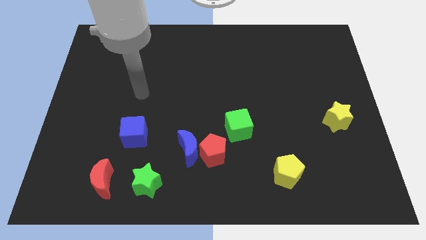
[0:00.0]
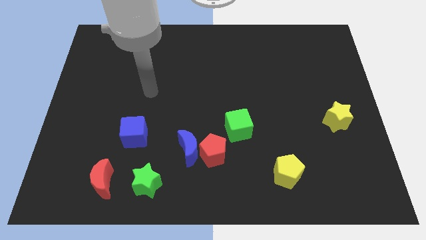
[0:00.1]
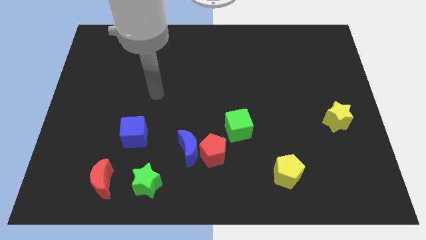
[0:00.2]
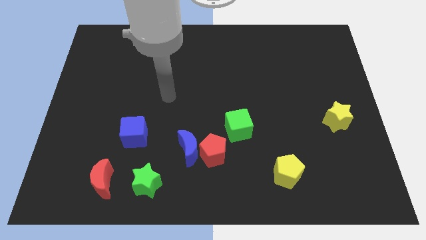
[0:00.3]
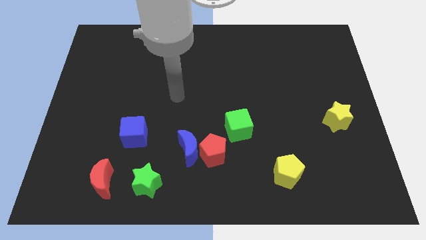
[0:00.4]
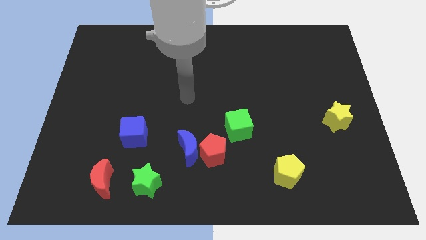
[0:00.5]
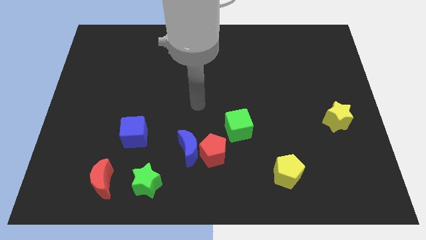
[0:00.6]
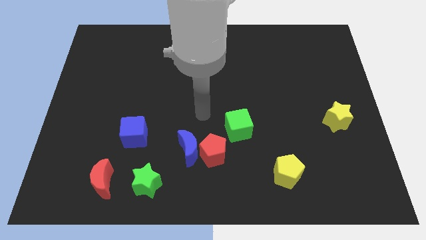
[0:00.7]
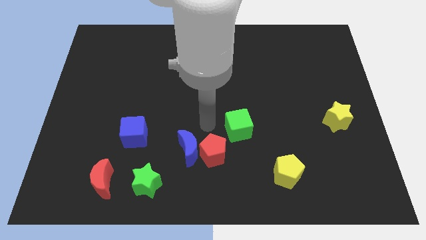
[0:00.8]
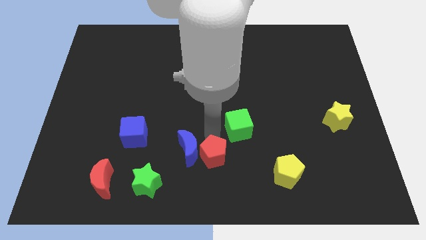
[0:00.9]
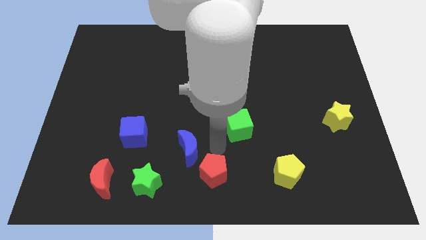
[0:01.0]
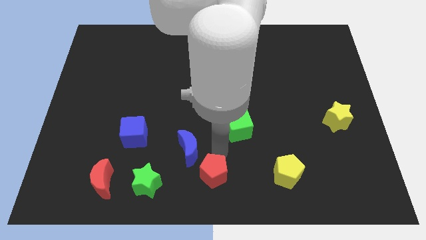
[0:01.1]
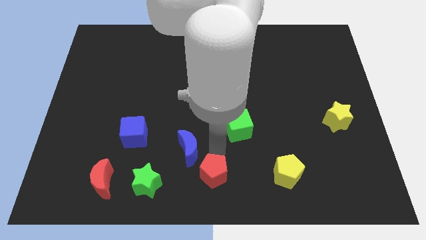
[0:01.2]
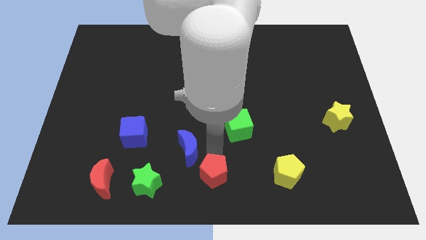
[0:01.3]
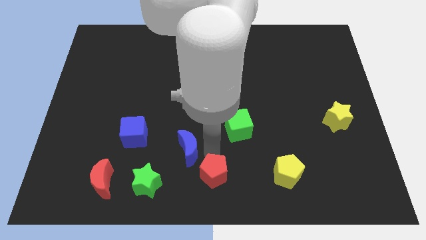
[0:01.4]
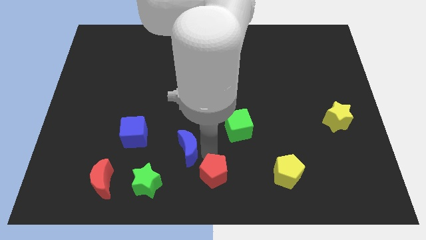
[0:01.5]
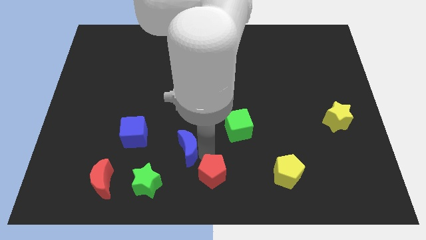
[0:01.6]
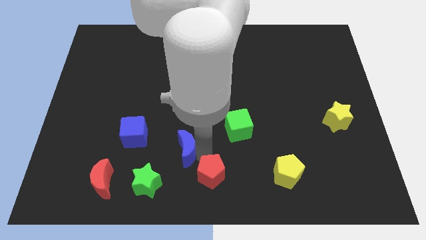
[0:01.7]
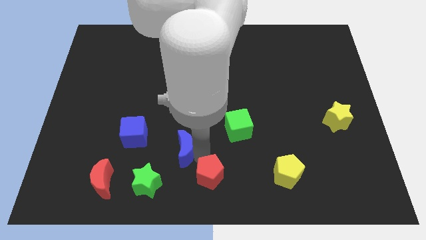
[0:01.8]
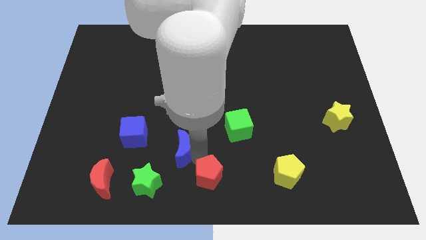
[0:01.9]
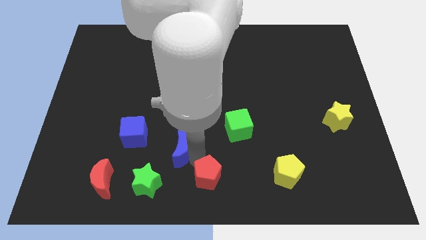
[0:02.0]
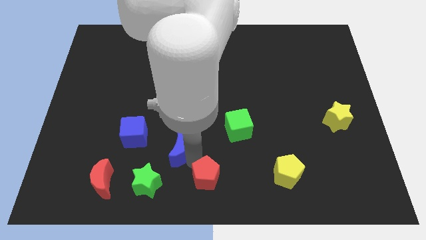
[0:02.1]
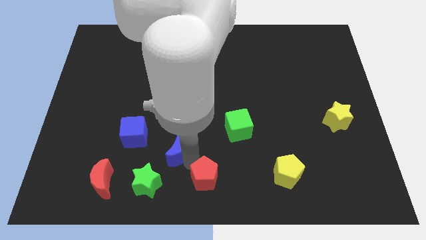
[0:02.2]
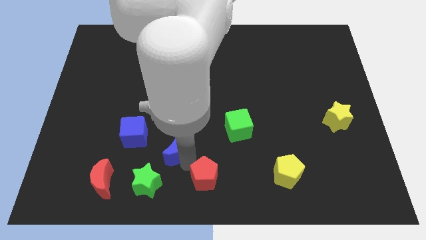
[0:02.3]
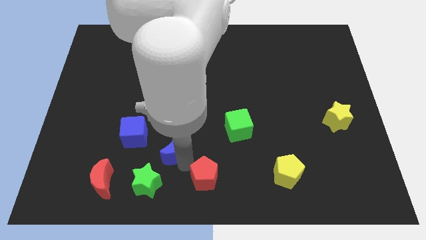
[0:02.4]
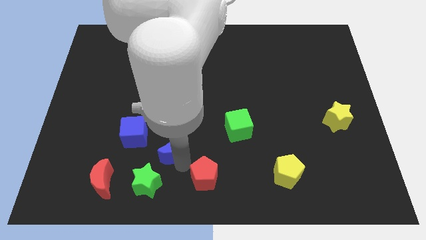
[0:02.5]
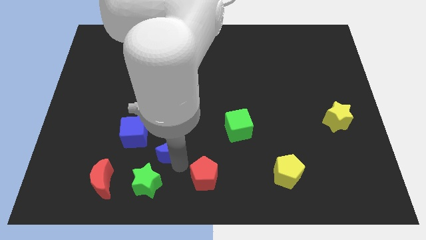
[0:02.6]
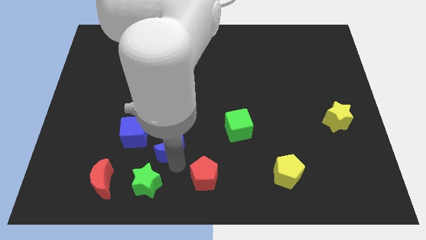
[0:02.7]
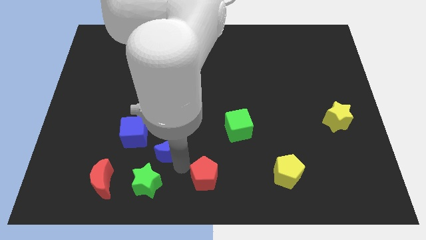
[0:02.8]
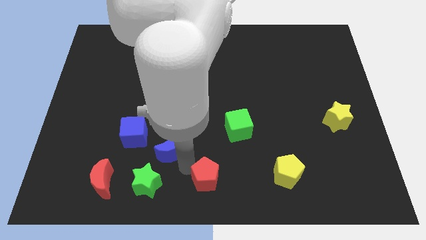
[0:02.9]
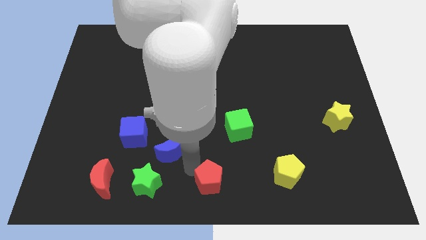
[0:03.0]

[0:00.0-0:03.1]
separate the blue moon from the red pentagon

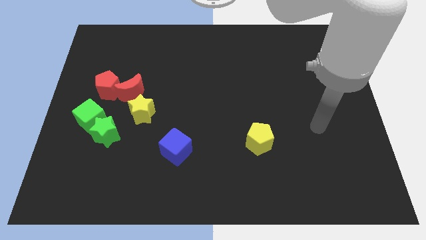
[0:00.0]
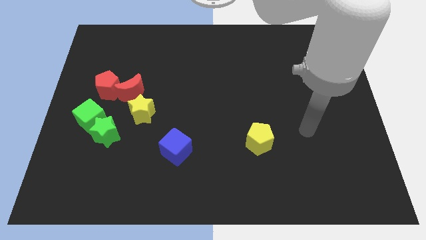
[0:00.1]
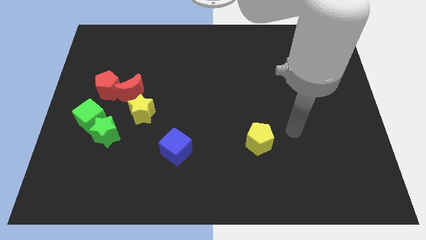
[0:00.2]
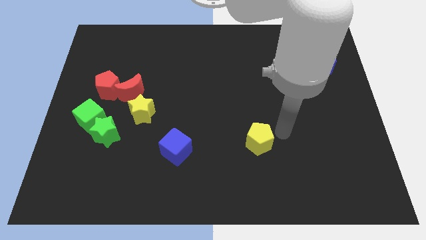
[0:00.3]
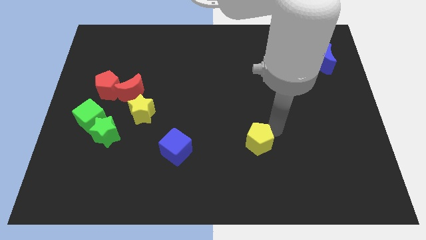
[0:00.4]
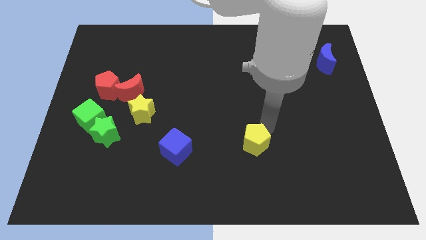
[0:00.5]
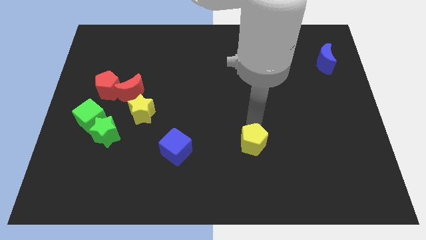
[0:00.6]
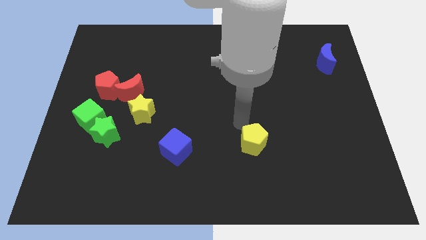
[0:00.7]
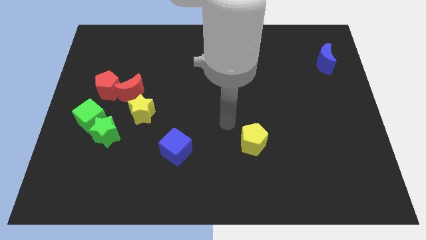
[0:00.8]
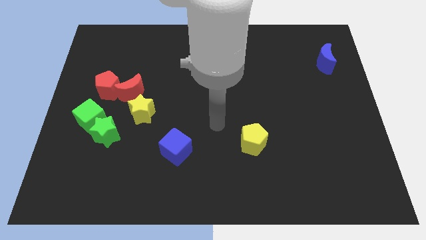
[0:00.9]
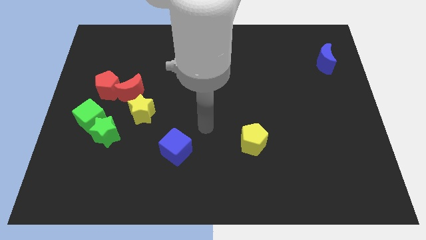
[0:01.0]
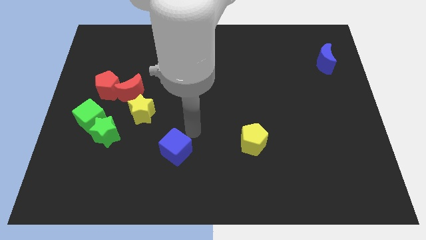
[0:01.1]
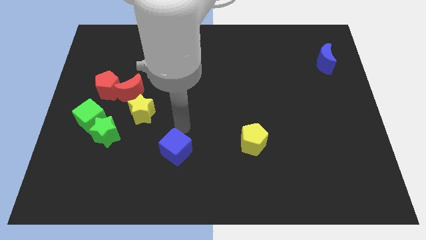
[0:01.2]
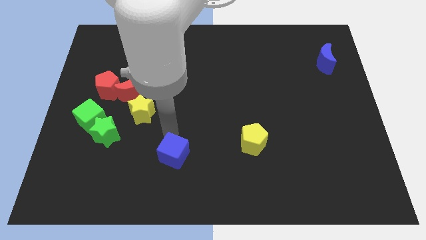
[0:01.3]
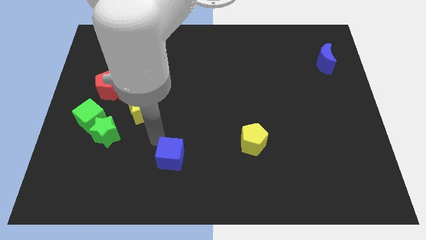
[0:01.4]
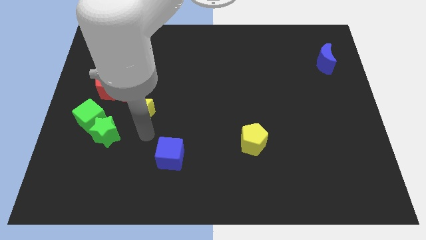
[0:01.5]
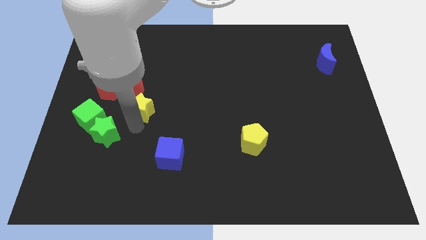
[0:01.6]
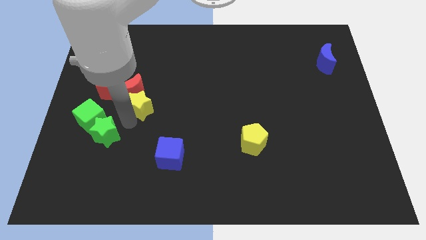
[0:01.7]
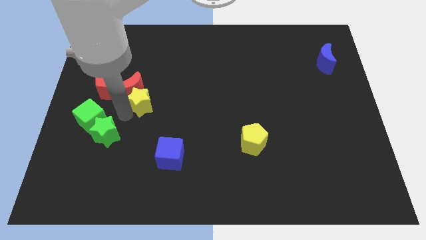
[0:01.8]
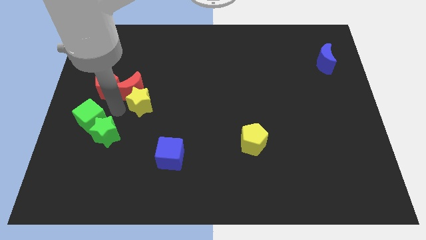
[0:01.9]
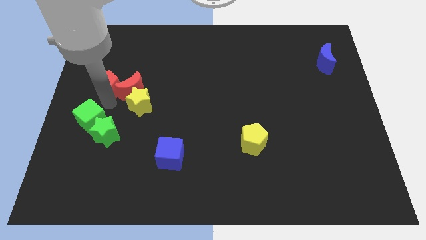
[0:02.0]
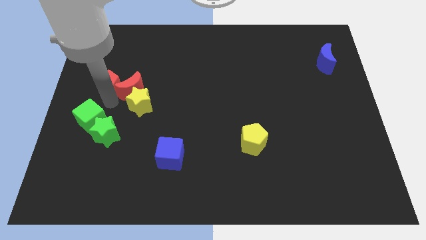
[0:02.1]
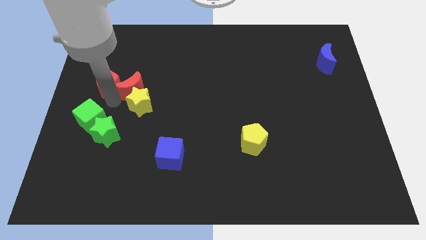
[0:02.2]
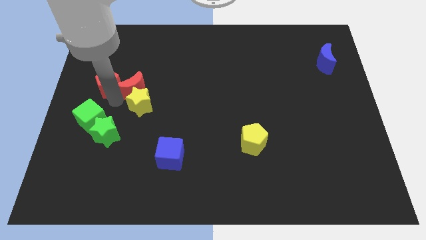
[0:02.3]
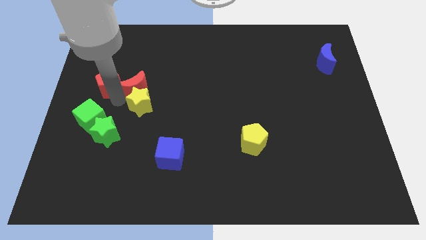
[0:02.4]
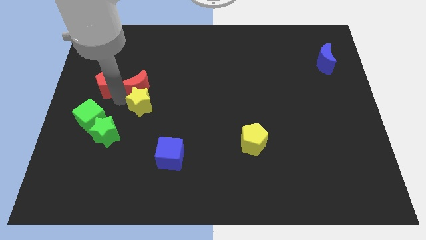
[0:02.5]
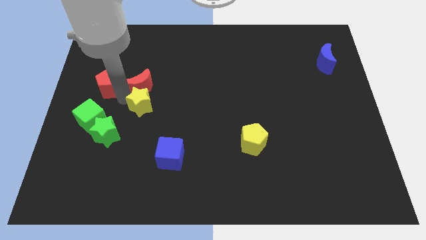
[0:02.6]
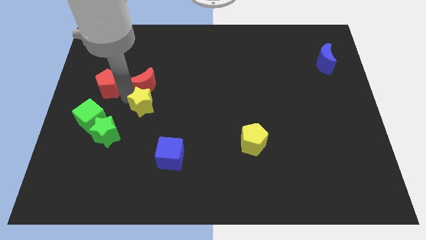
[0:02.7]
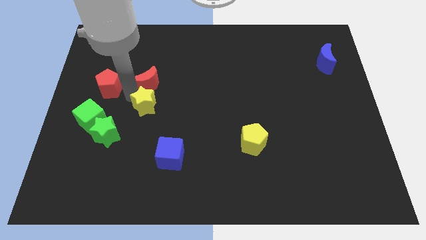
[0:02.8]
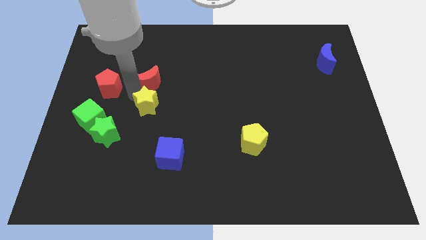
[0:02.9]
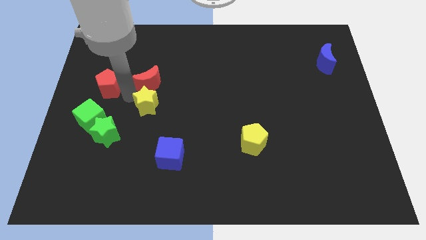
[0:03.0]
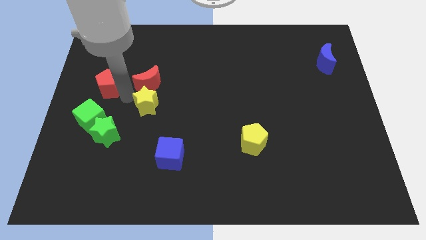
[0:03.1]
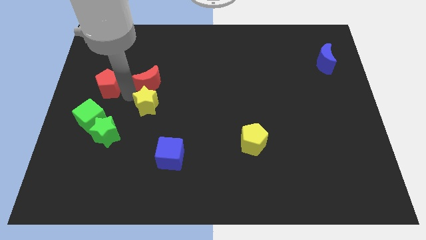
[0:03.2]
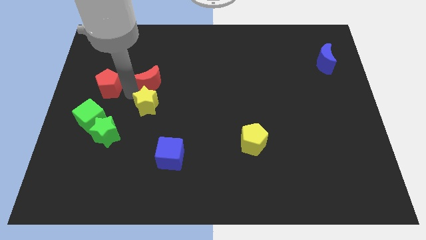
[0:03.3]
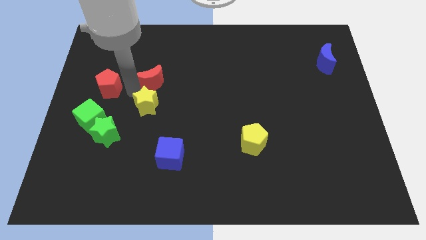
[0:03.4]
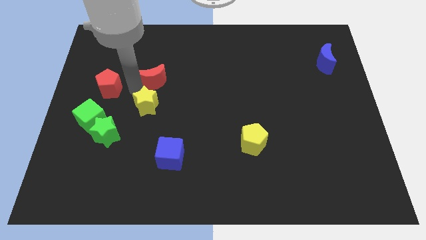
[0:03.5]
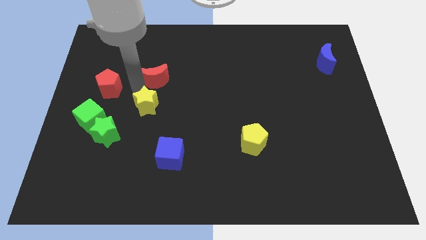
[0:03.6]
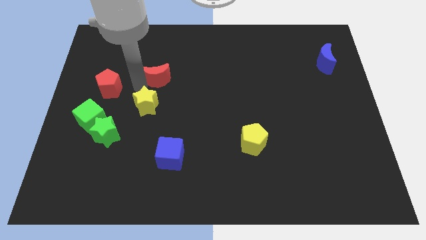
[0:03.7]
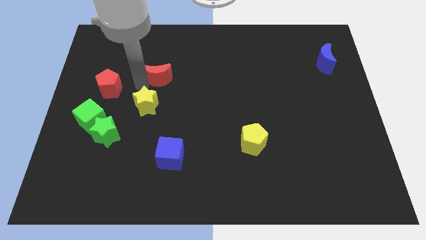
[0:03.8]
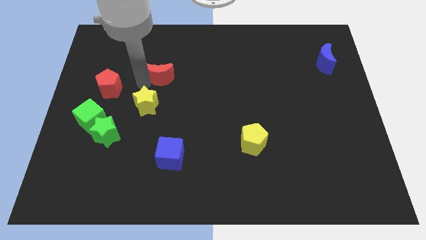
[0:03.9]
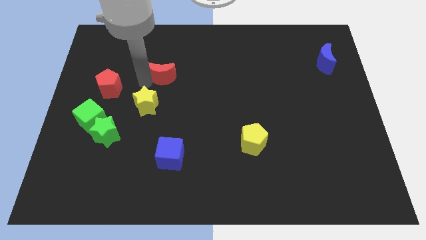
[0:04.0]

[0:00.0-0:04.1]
pull the red moon apart from the red pentagon and yellow star

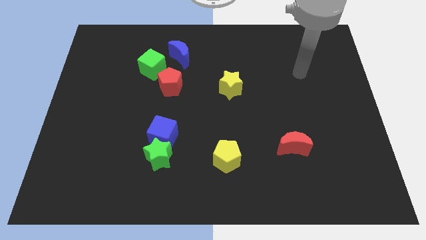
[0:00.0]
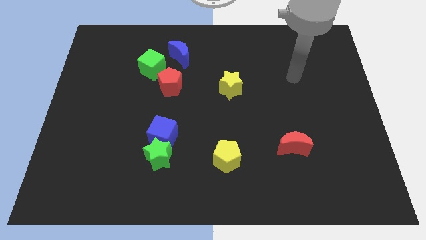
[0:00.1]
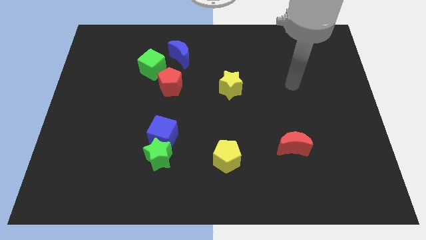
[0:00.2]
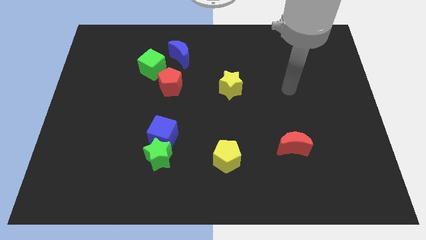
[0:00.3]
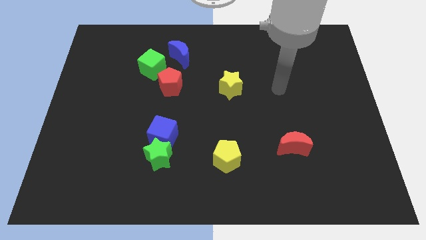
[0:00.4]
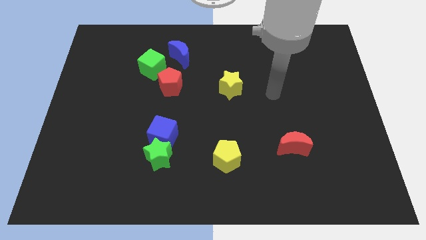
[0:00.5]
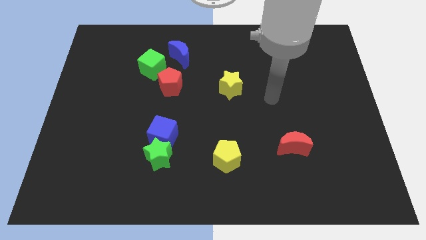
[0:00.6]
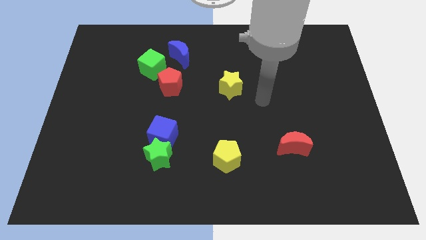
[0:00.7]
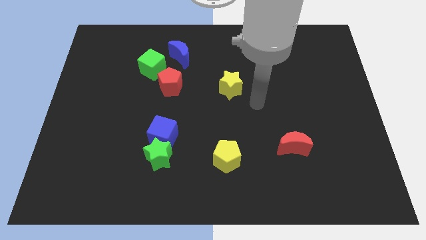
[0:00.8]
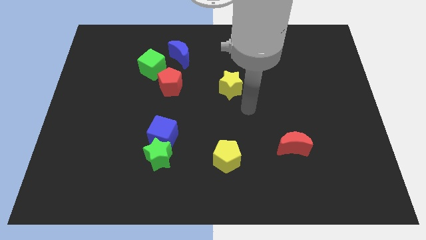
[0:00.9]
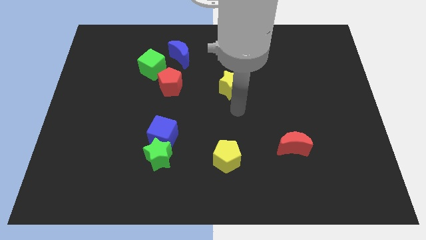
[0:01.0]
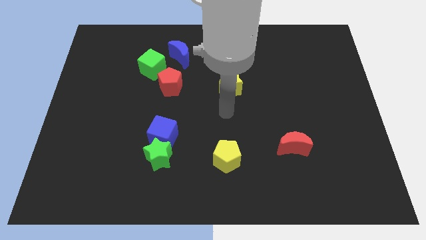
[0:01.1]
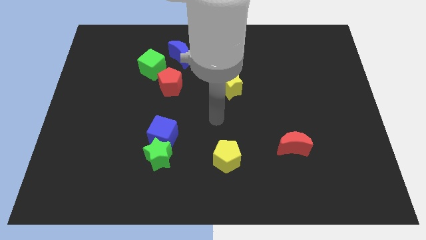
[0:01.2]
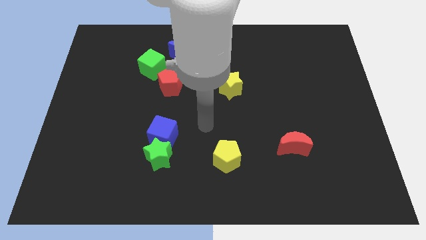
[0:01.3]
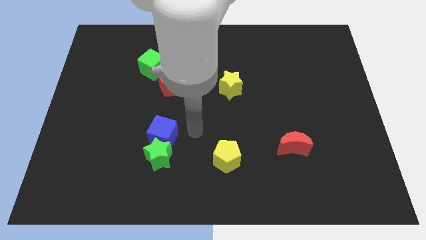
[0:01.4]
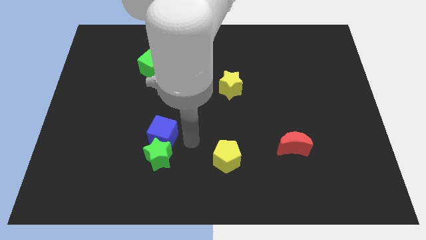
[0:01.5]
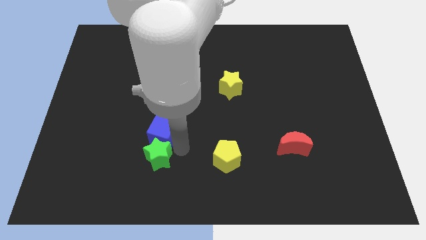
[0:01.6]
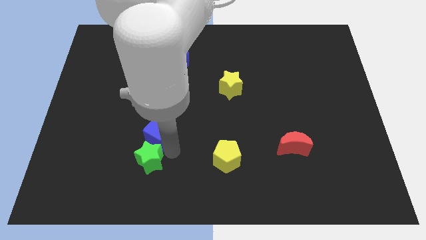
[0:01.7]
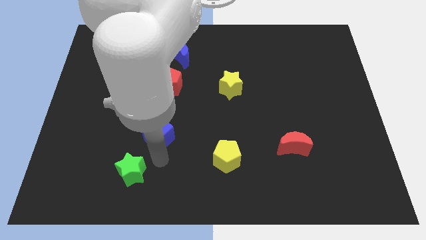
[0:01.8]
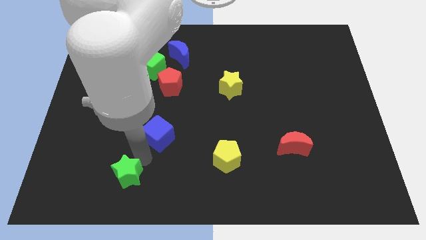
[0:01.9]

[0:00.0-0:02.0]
move the blue cube away from the green star
